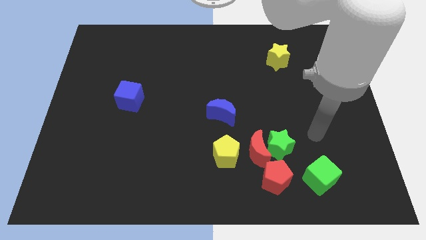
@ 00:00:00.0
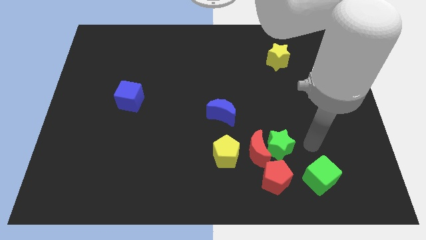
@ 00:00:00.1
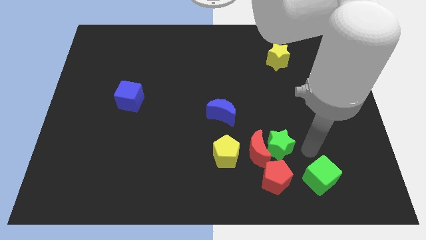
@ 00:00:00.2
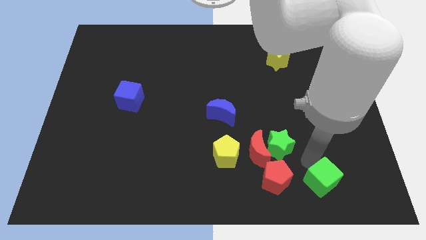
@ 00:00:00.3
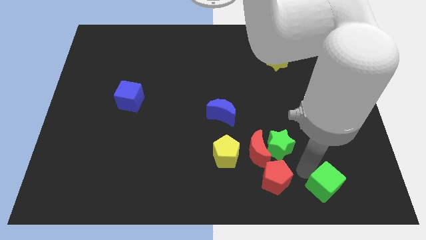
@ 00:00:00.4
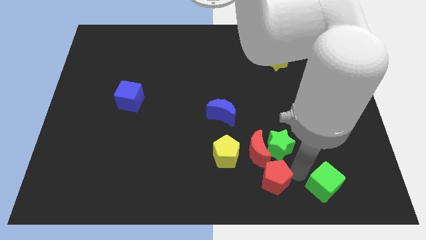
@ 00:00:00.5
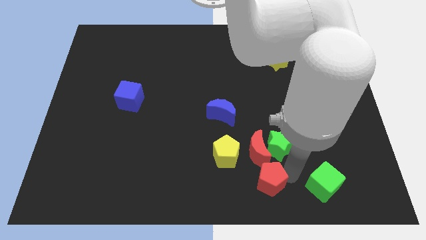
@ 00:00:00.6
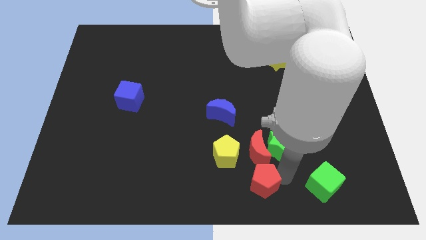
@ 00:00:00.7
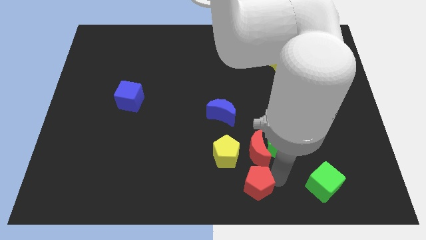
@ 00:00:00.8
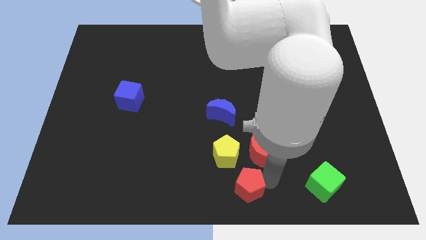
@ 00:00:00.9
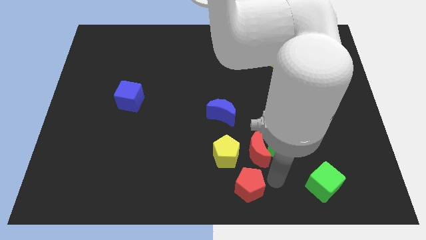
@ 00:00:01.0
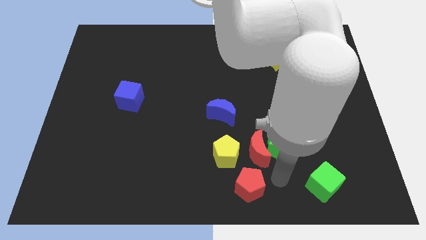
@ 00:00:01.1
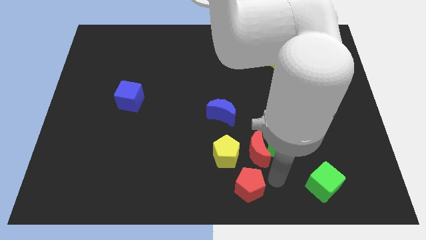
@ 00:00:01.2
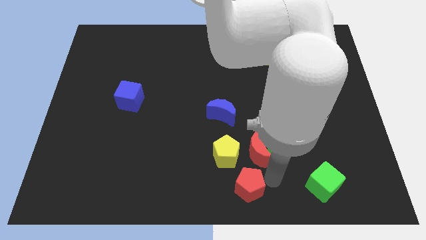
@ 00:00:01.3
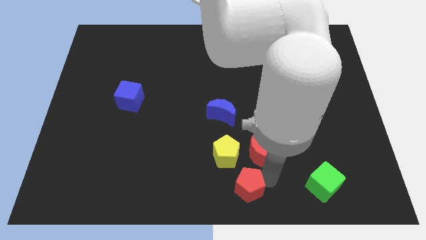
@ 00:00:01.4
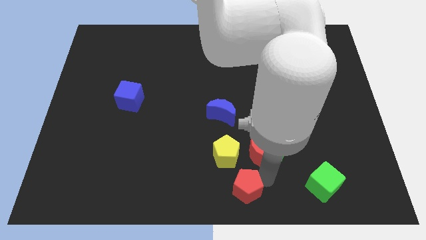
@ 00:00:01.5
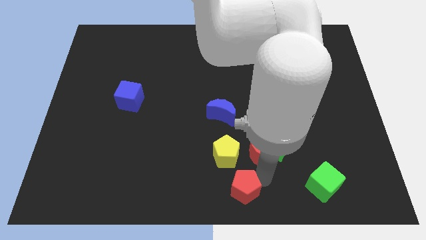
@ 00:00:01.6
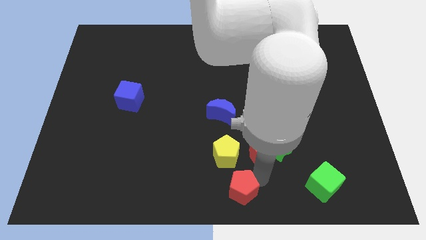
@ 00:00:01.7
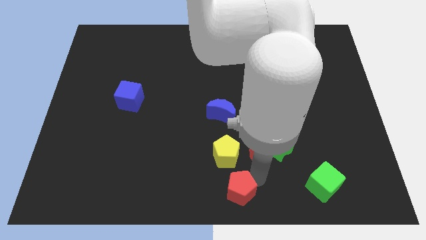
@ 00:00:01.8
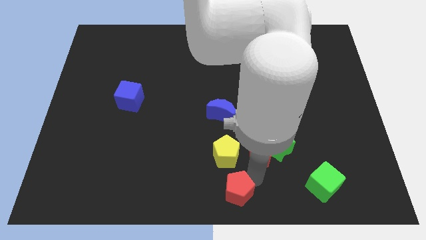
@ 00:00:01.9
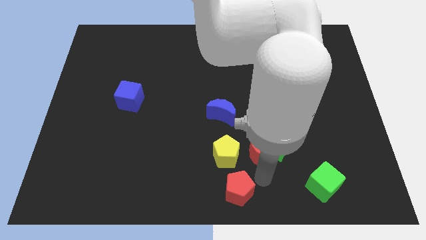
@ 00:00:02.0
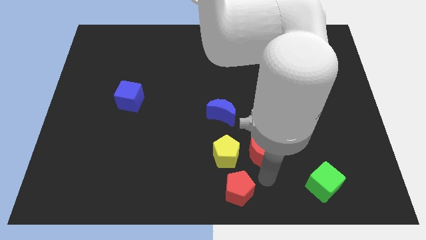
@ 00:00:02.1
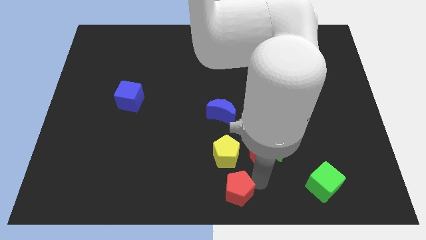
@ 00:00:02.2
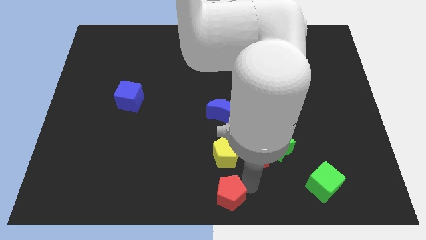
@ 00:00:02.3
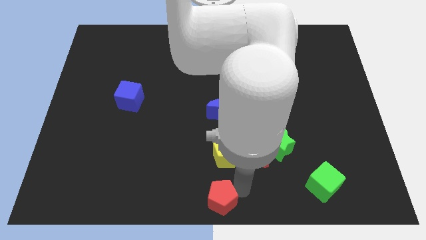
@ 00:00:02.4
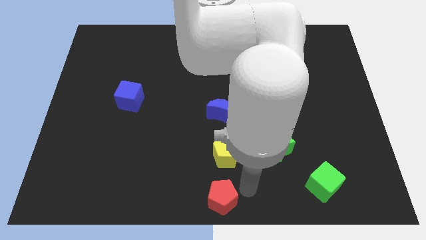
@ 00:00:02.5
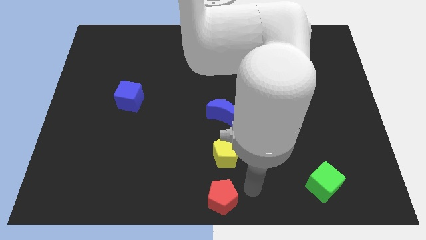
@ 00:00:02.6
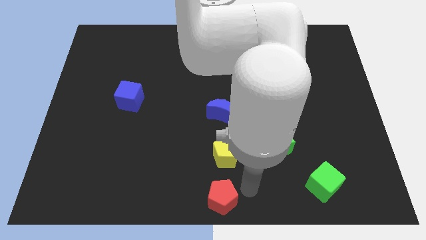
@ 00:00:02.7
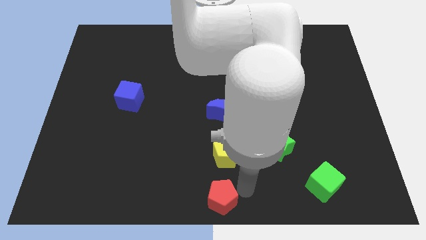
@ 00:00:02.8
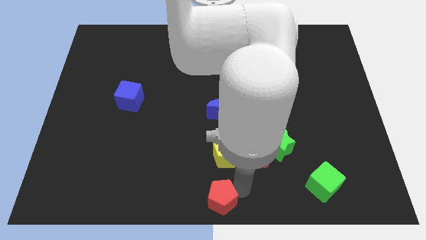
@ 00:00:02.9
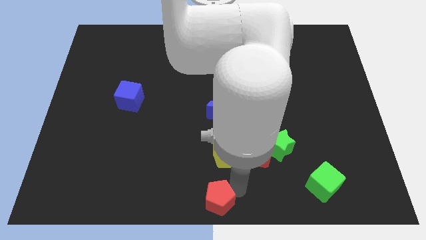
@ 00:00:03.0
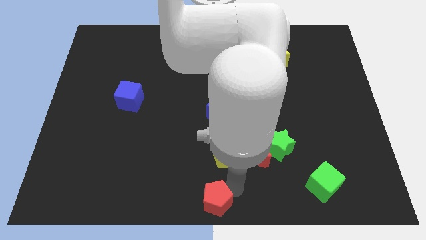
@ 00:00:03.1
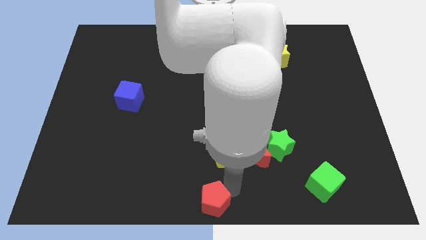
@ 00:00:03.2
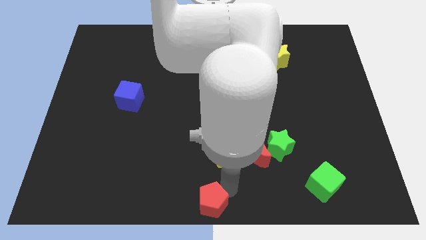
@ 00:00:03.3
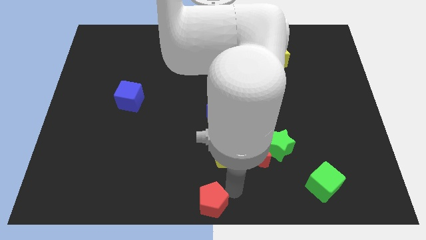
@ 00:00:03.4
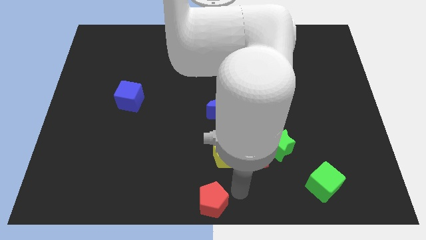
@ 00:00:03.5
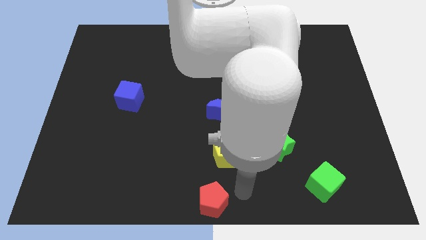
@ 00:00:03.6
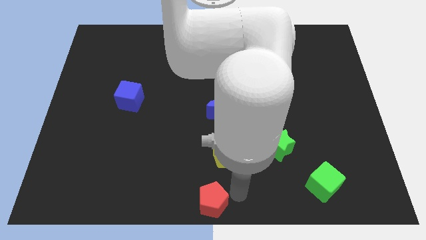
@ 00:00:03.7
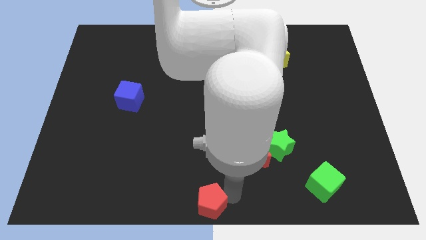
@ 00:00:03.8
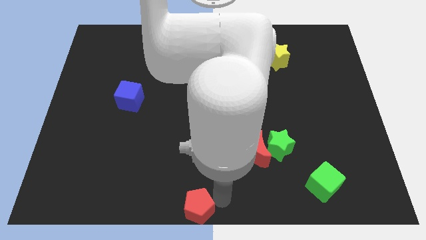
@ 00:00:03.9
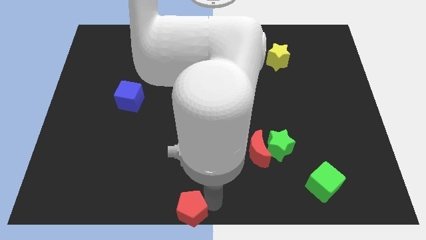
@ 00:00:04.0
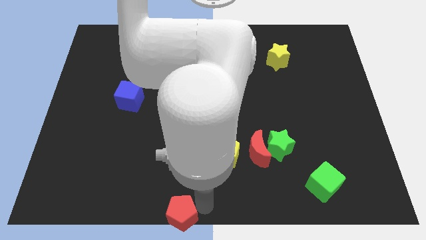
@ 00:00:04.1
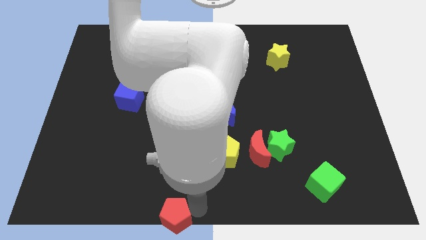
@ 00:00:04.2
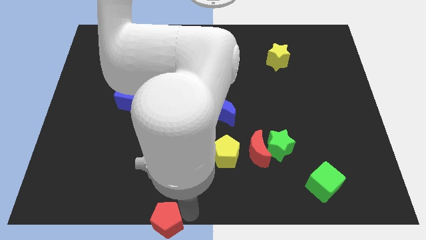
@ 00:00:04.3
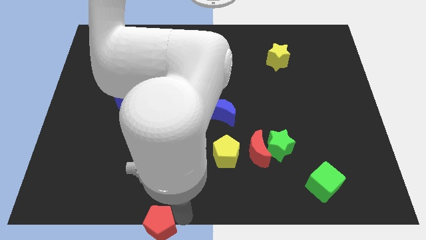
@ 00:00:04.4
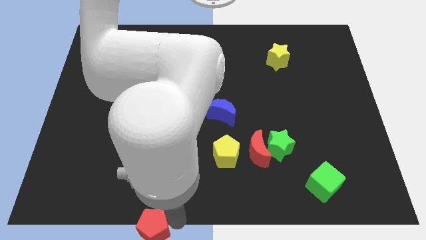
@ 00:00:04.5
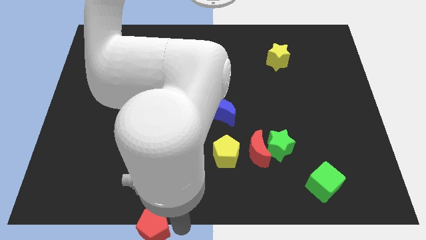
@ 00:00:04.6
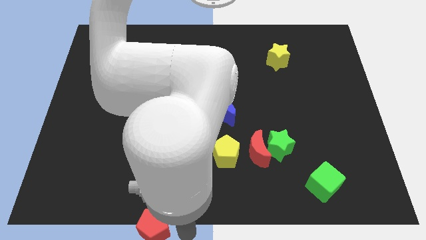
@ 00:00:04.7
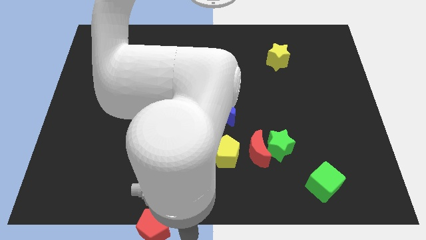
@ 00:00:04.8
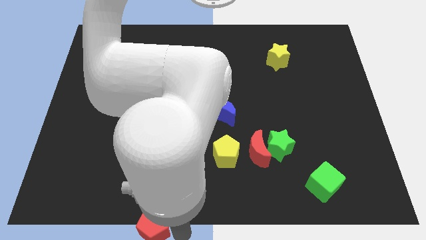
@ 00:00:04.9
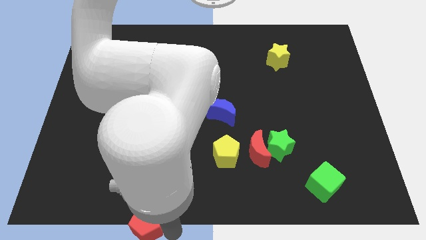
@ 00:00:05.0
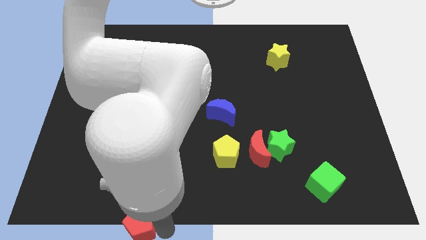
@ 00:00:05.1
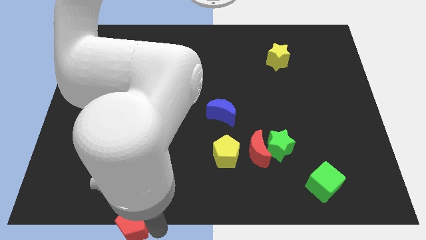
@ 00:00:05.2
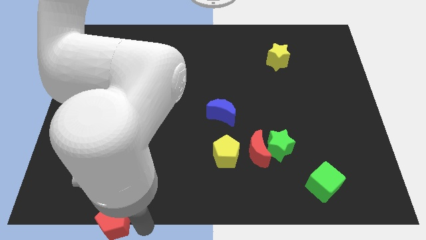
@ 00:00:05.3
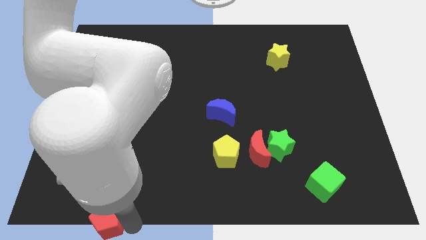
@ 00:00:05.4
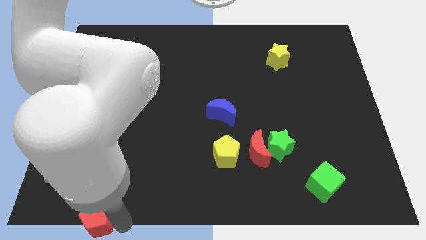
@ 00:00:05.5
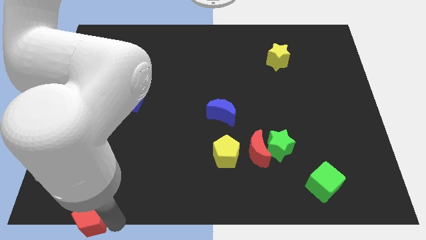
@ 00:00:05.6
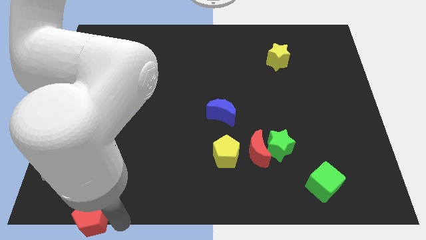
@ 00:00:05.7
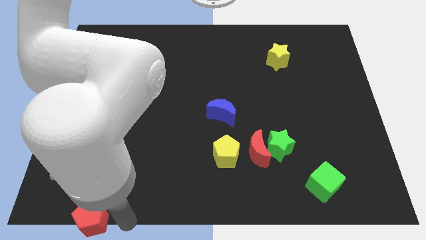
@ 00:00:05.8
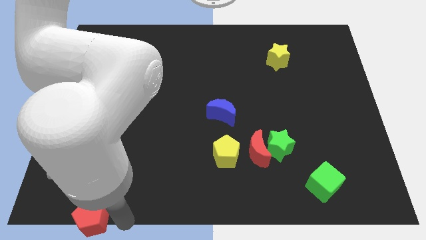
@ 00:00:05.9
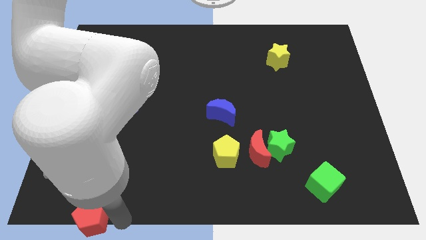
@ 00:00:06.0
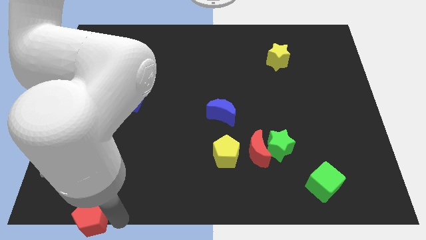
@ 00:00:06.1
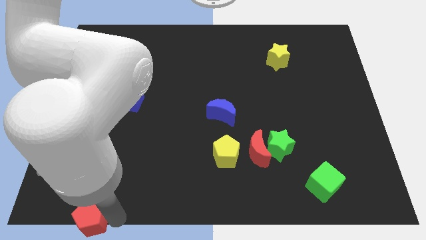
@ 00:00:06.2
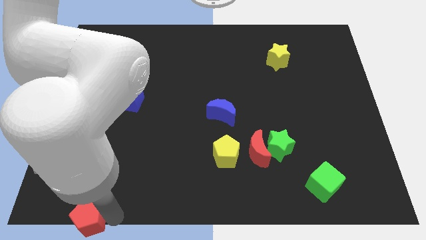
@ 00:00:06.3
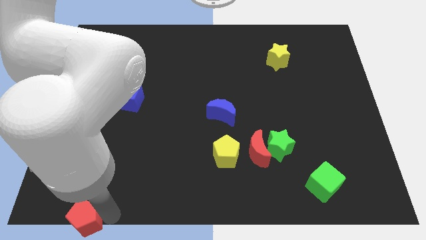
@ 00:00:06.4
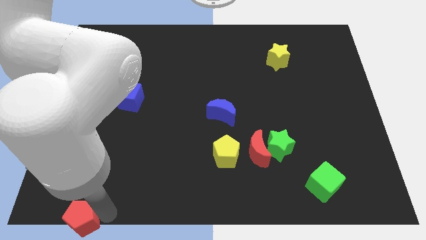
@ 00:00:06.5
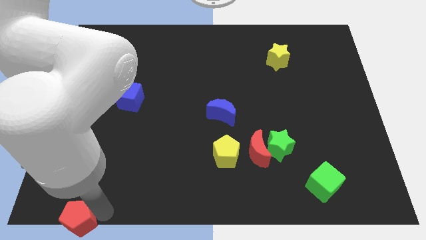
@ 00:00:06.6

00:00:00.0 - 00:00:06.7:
push the red pentagon to the bottom left of the board
